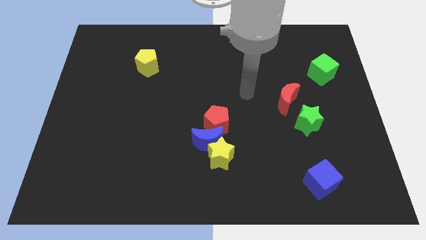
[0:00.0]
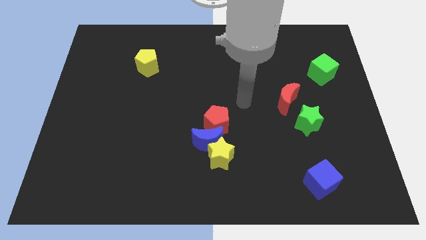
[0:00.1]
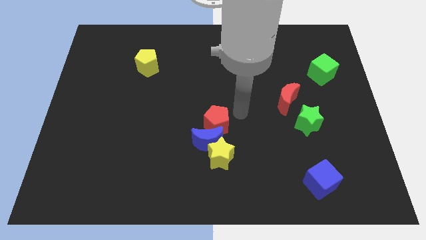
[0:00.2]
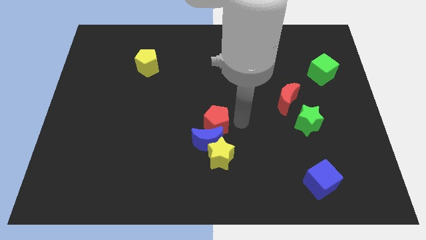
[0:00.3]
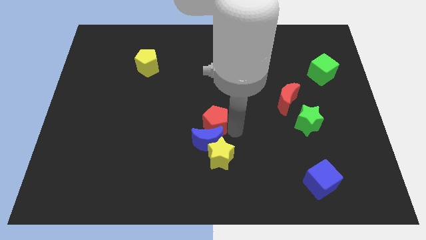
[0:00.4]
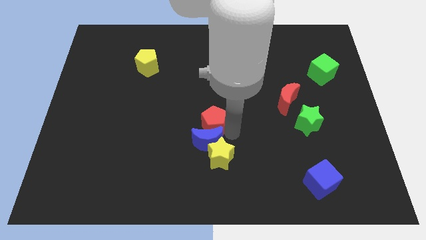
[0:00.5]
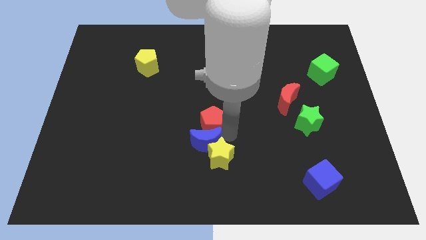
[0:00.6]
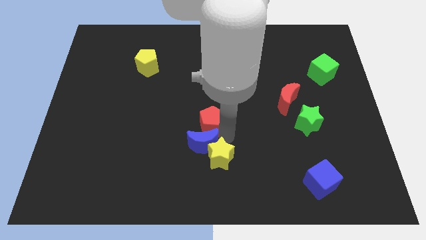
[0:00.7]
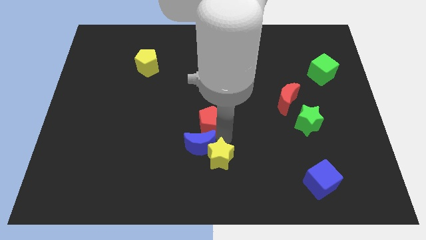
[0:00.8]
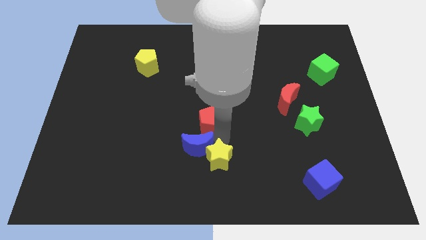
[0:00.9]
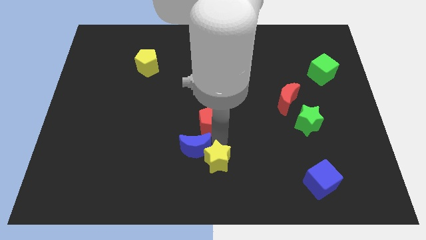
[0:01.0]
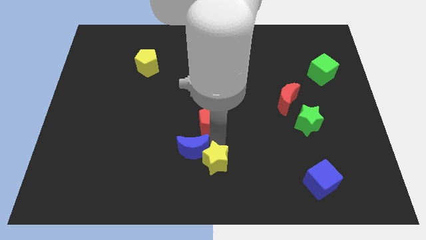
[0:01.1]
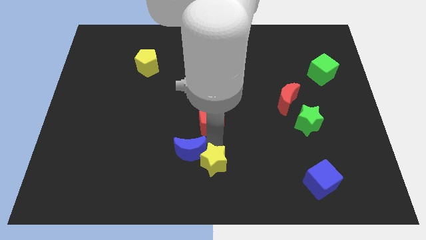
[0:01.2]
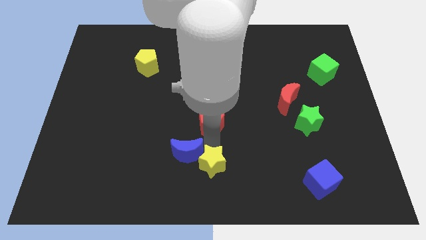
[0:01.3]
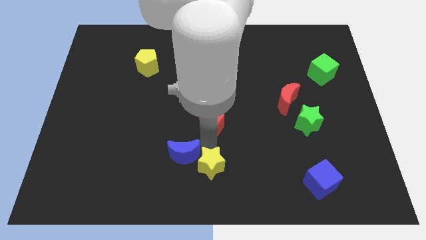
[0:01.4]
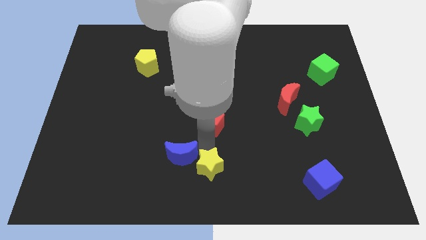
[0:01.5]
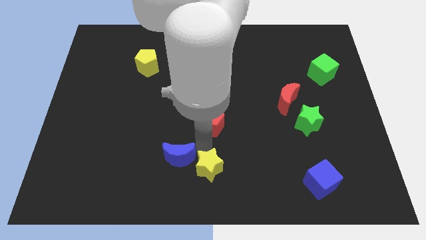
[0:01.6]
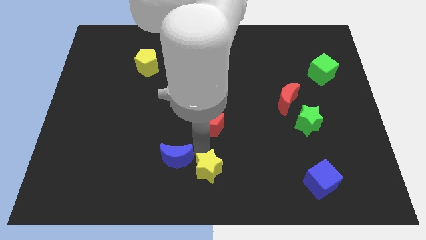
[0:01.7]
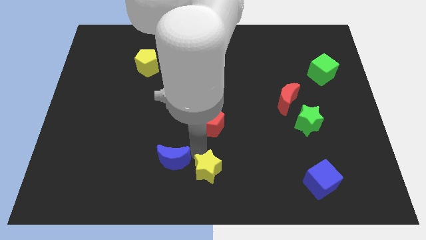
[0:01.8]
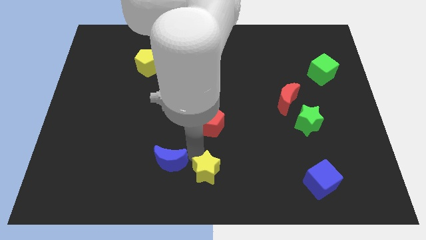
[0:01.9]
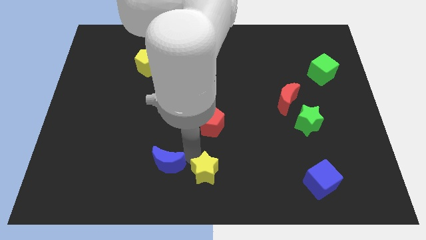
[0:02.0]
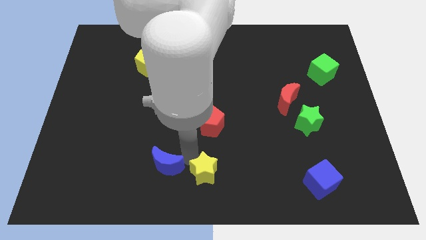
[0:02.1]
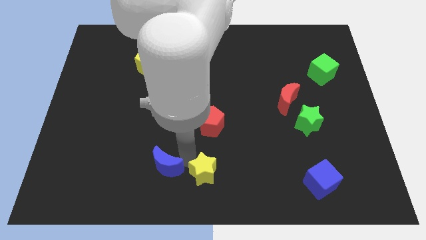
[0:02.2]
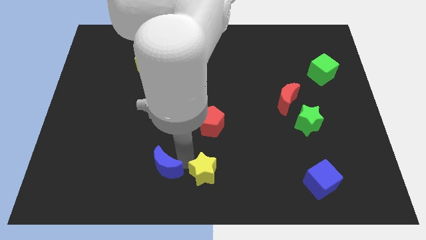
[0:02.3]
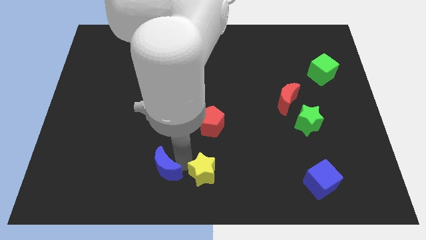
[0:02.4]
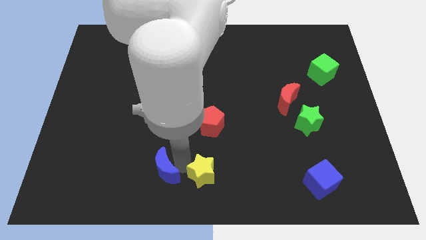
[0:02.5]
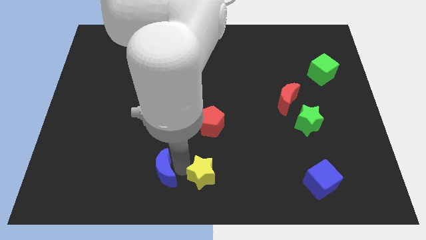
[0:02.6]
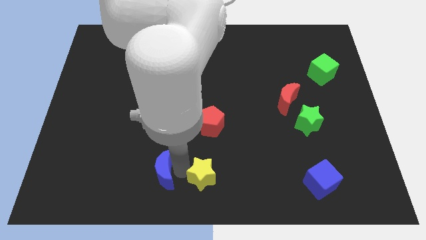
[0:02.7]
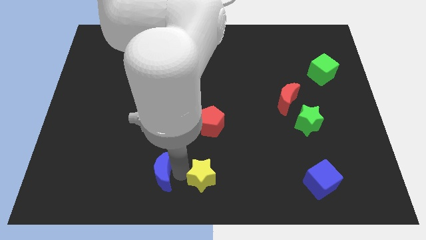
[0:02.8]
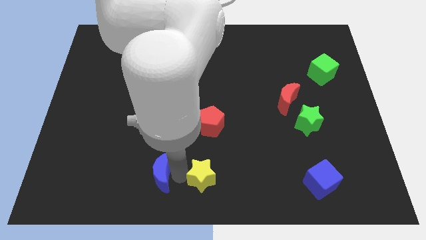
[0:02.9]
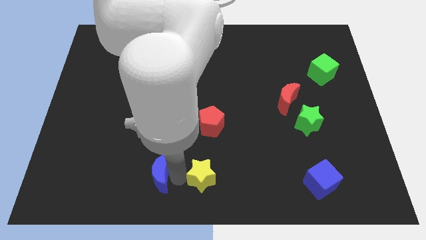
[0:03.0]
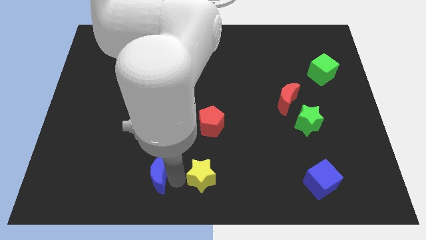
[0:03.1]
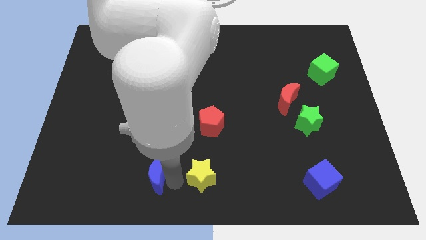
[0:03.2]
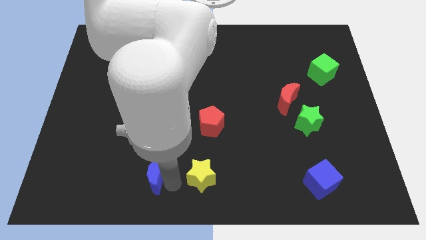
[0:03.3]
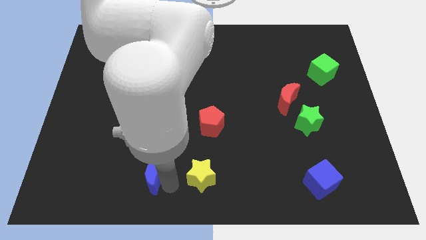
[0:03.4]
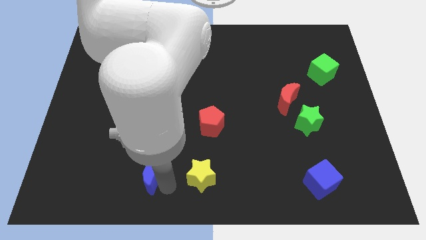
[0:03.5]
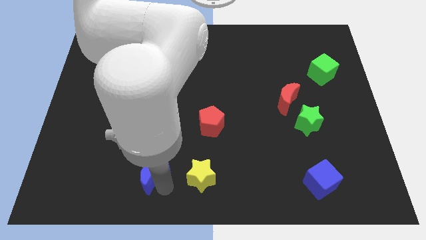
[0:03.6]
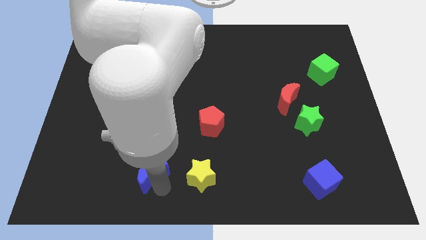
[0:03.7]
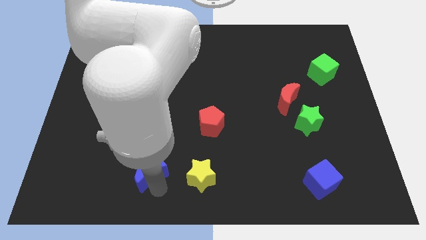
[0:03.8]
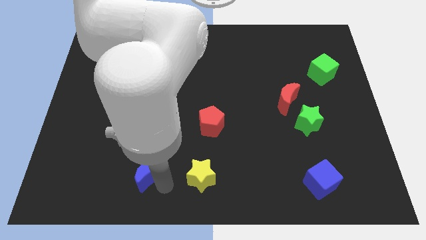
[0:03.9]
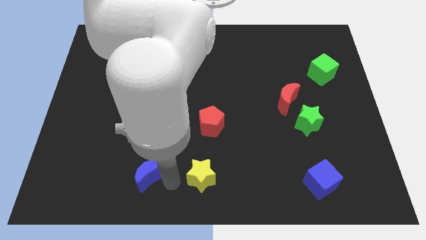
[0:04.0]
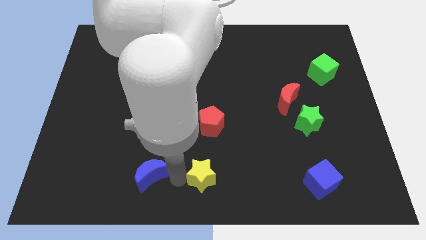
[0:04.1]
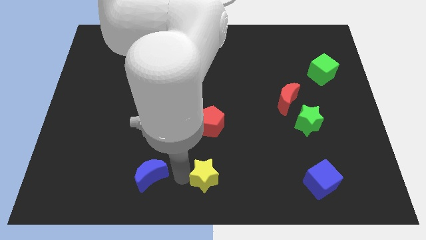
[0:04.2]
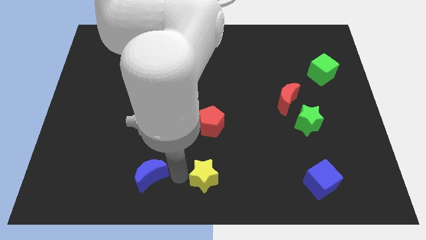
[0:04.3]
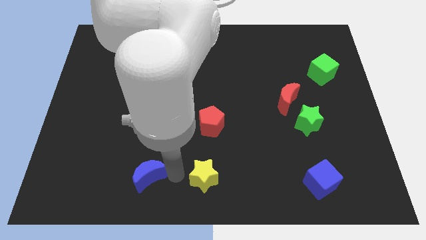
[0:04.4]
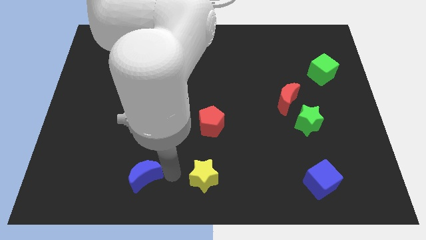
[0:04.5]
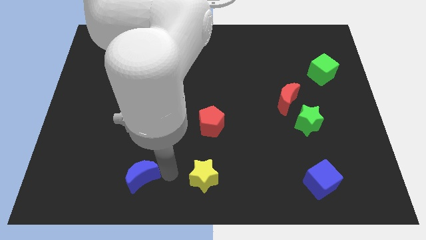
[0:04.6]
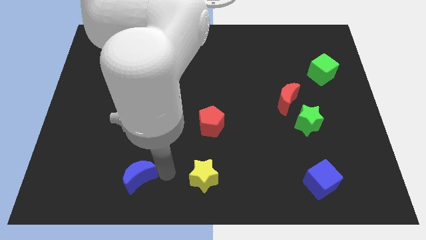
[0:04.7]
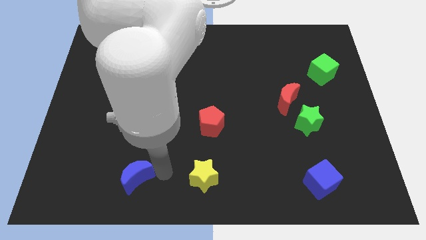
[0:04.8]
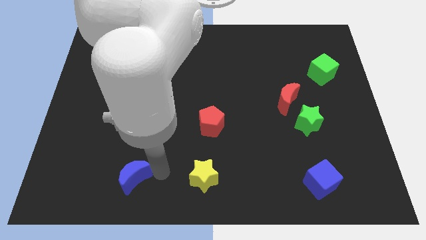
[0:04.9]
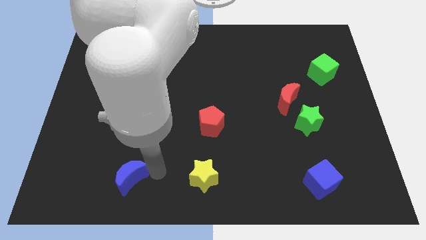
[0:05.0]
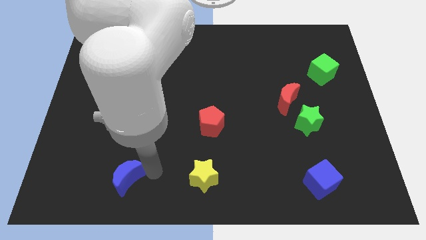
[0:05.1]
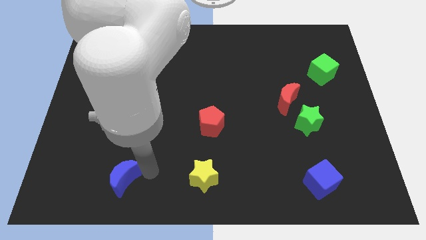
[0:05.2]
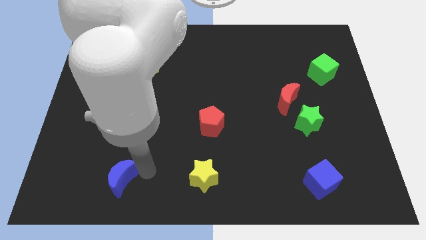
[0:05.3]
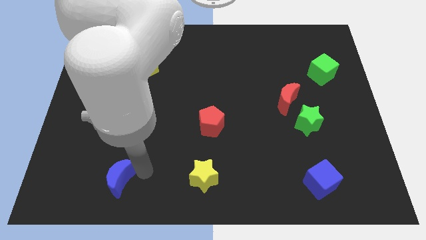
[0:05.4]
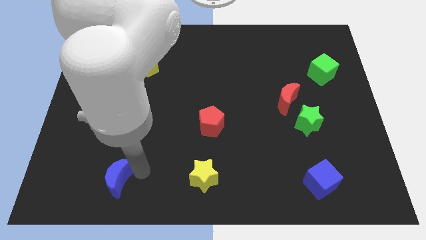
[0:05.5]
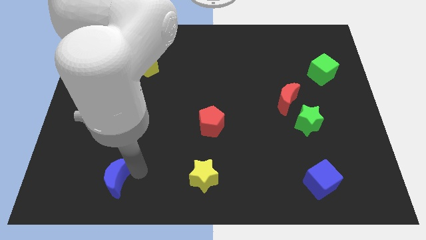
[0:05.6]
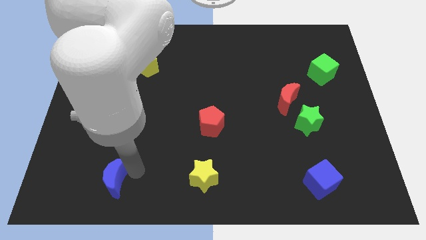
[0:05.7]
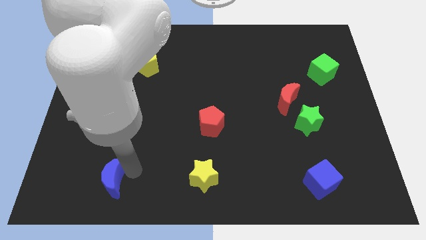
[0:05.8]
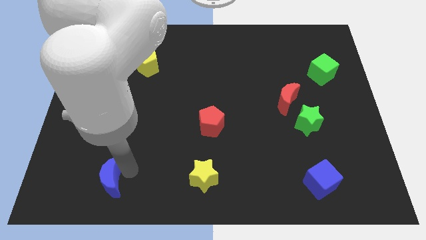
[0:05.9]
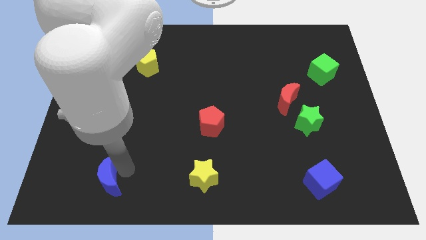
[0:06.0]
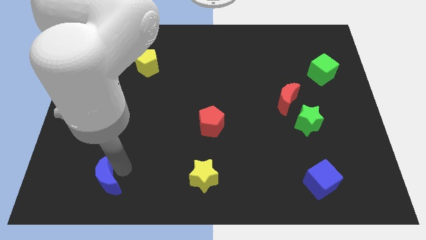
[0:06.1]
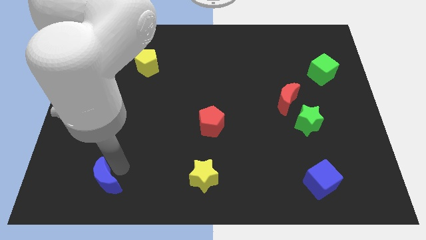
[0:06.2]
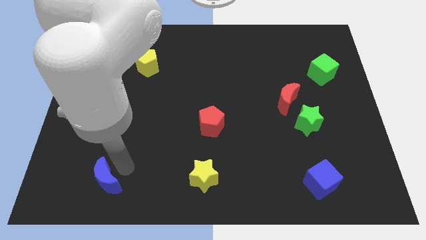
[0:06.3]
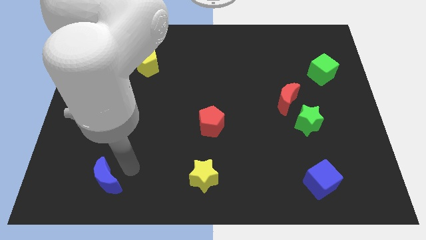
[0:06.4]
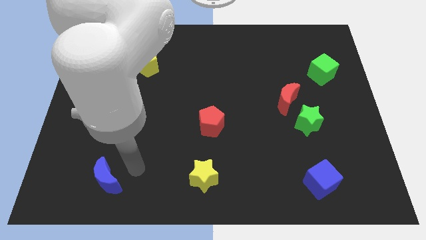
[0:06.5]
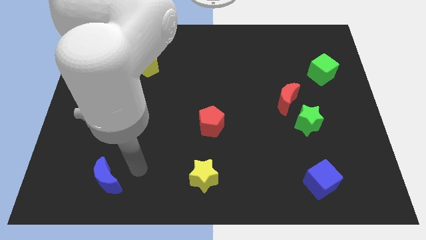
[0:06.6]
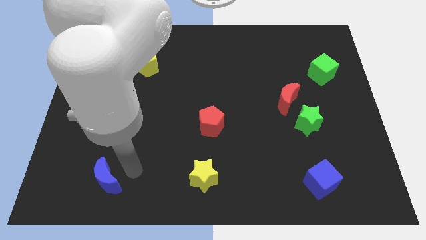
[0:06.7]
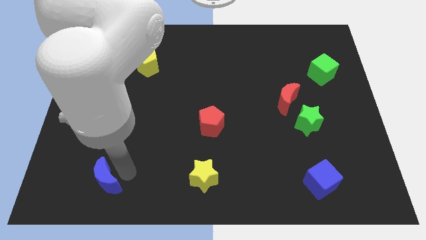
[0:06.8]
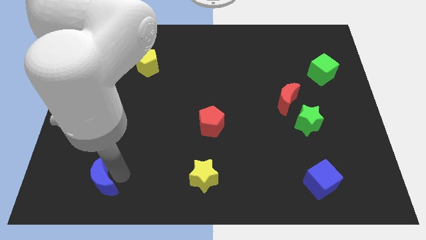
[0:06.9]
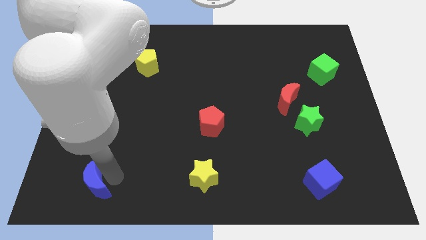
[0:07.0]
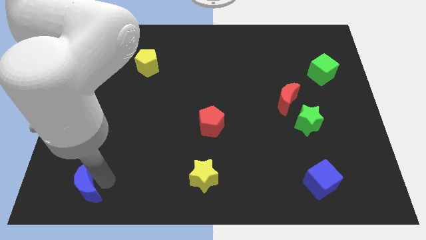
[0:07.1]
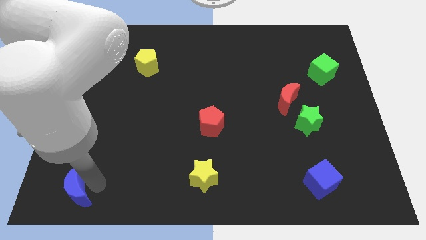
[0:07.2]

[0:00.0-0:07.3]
push the blue moon to the bottom left corner
